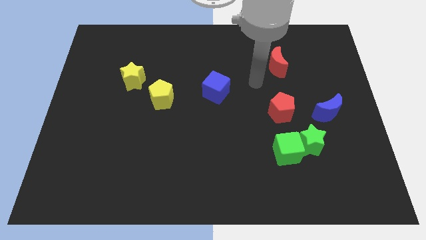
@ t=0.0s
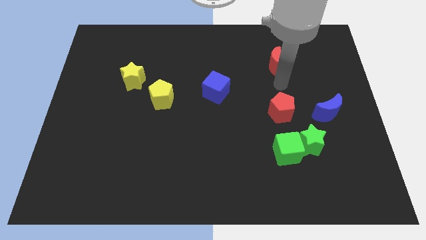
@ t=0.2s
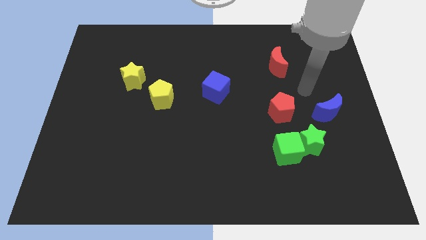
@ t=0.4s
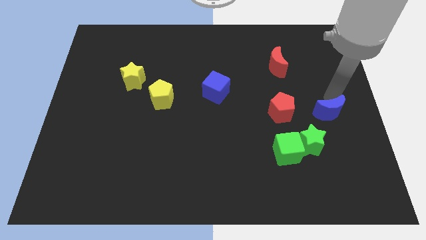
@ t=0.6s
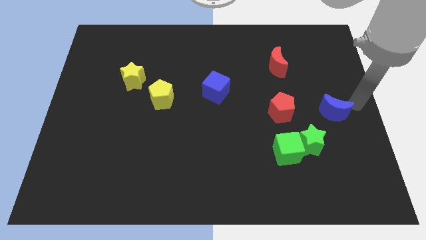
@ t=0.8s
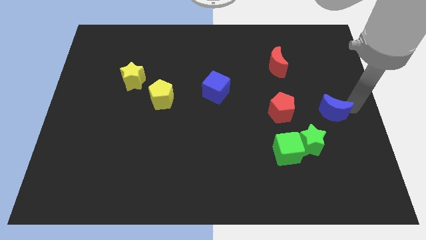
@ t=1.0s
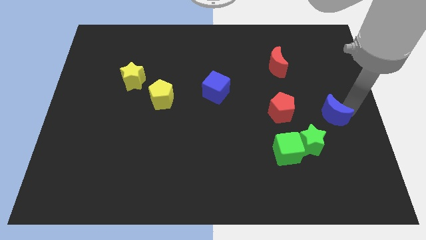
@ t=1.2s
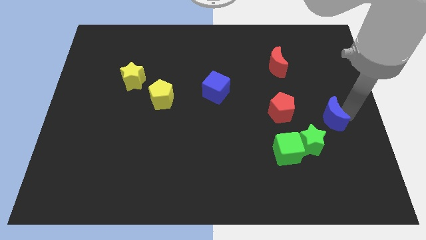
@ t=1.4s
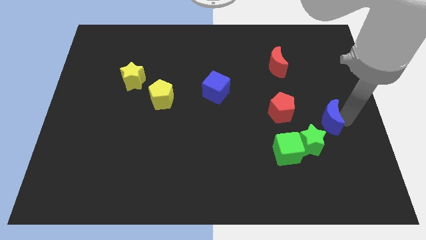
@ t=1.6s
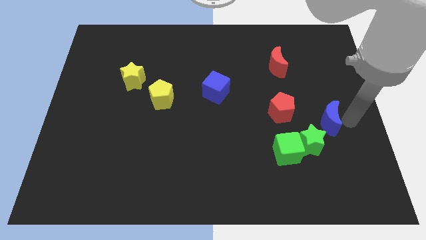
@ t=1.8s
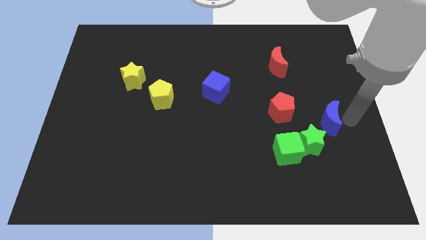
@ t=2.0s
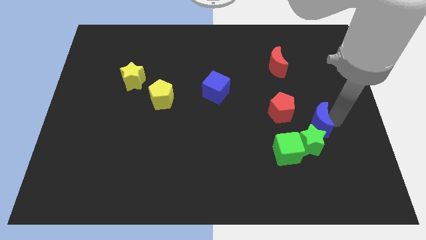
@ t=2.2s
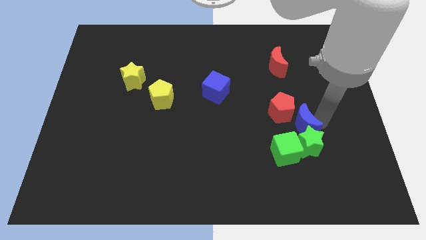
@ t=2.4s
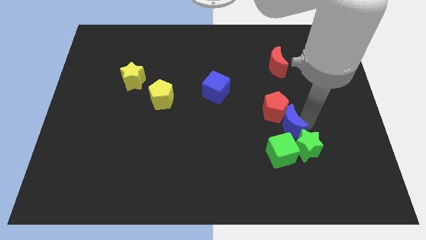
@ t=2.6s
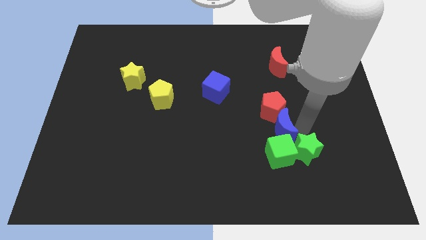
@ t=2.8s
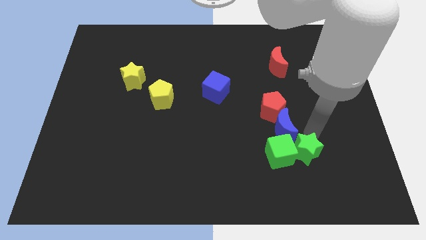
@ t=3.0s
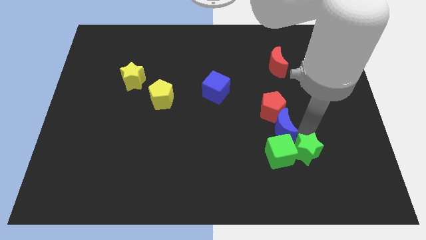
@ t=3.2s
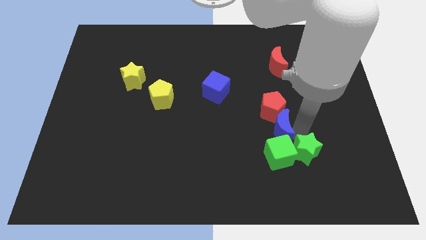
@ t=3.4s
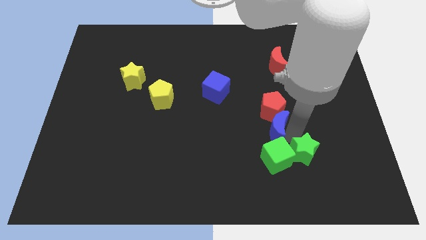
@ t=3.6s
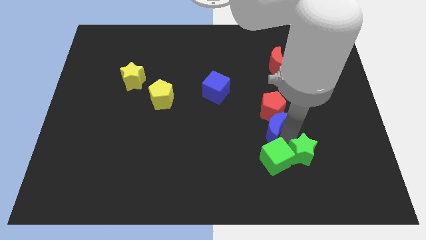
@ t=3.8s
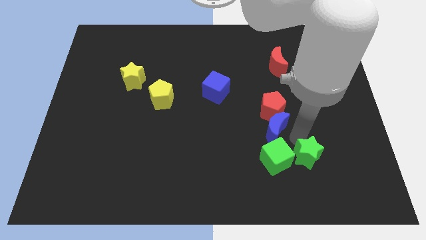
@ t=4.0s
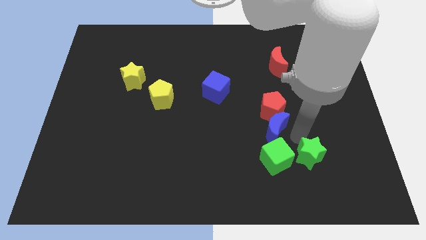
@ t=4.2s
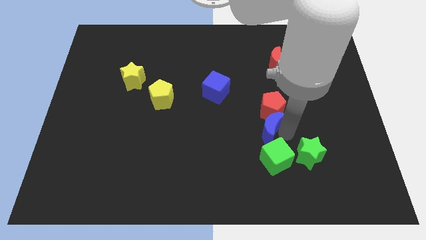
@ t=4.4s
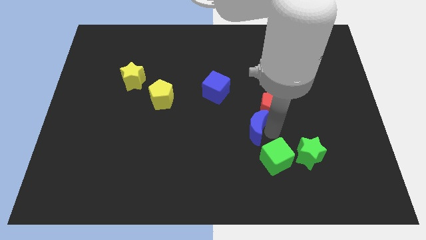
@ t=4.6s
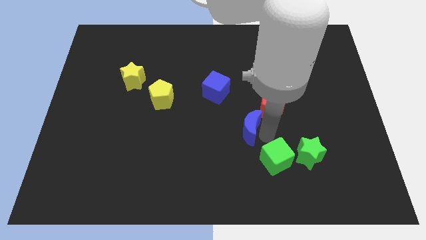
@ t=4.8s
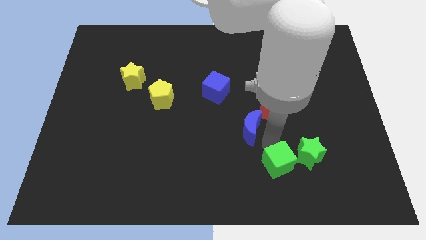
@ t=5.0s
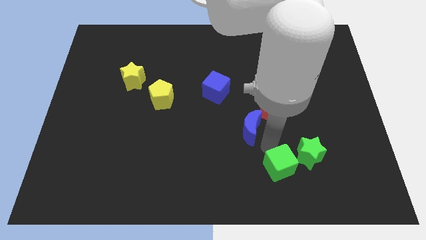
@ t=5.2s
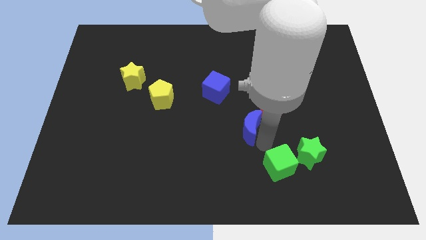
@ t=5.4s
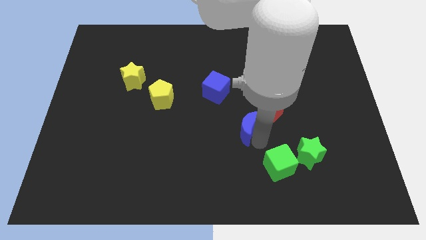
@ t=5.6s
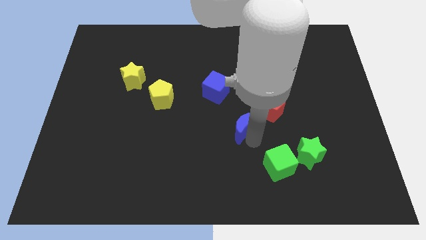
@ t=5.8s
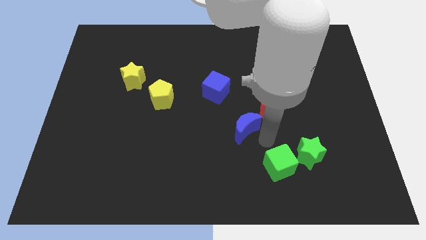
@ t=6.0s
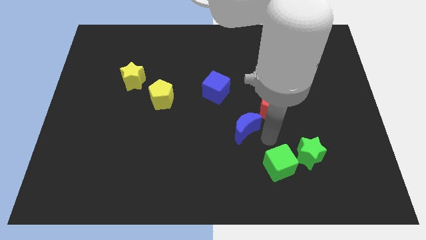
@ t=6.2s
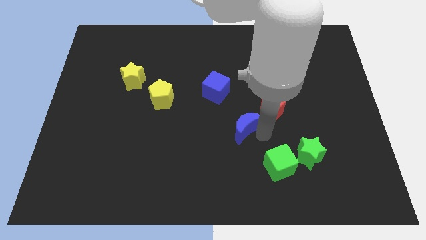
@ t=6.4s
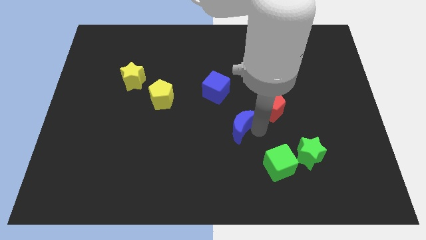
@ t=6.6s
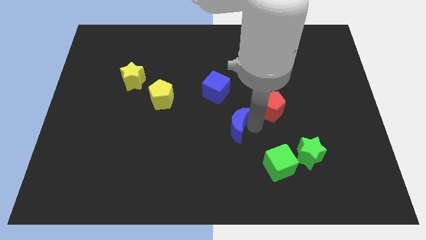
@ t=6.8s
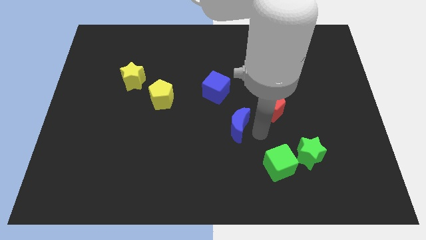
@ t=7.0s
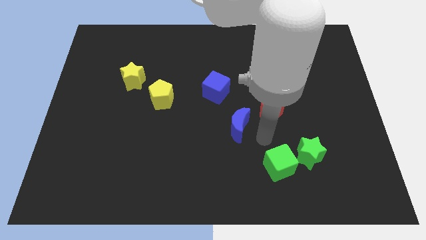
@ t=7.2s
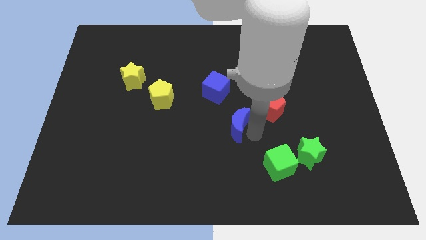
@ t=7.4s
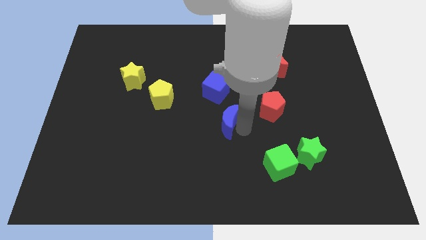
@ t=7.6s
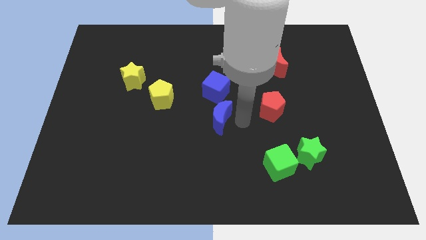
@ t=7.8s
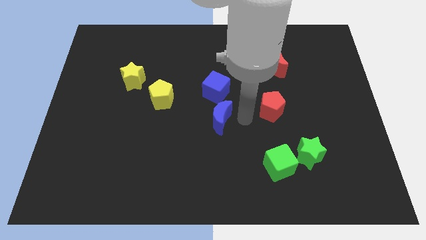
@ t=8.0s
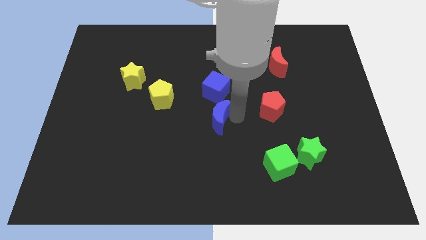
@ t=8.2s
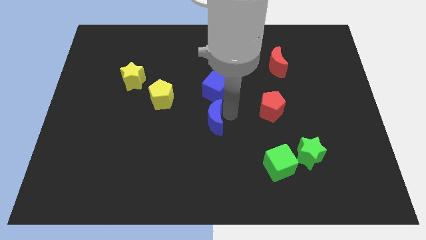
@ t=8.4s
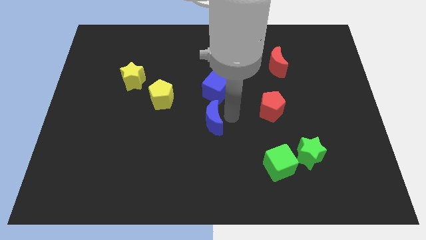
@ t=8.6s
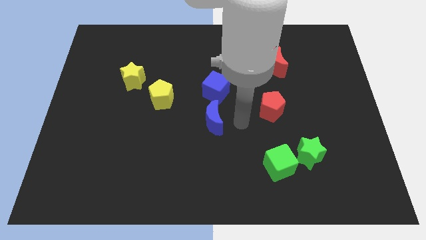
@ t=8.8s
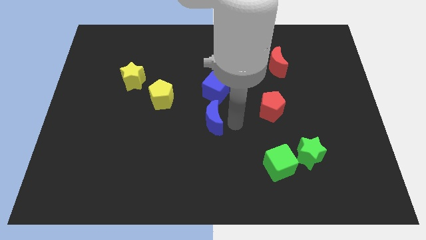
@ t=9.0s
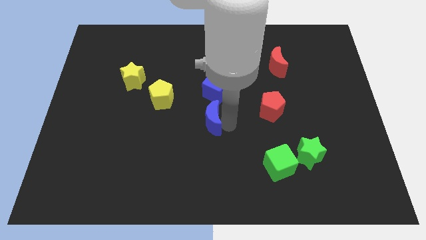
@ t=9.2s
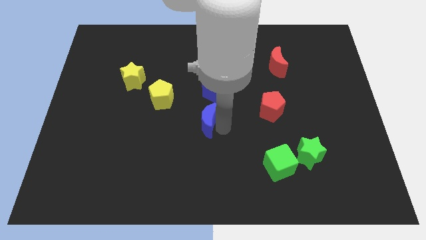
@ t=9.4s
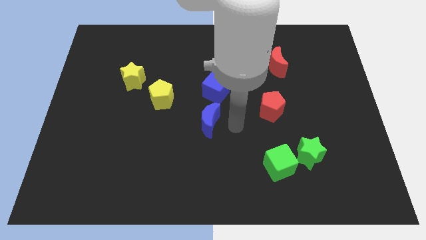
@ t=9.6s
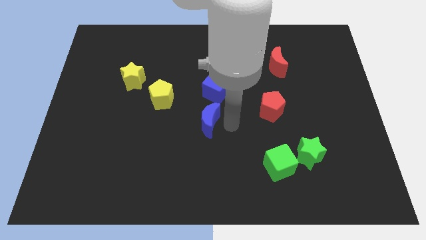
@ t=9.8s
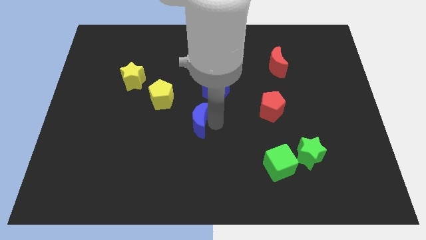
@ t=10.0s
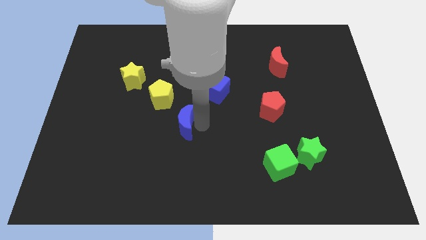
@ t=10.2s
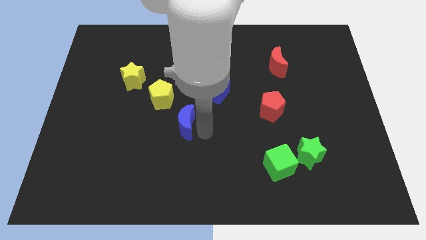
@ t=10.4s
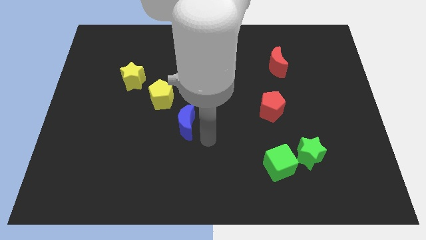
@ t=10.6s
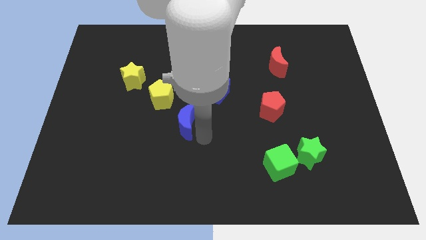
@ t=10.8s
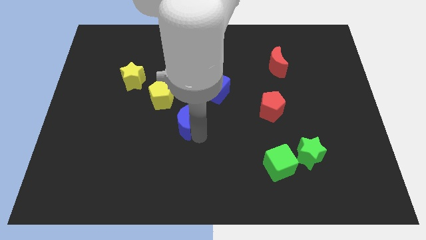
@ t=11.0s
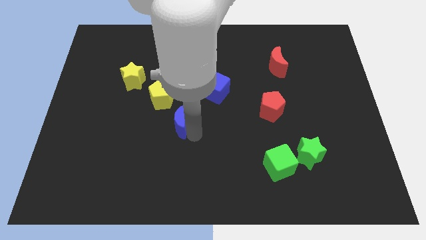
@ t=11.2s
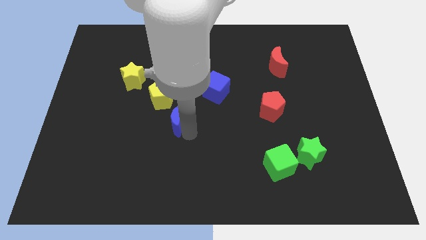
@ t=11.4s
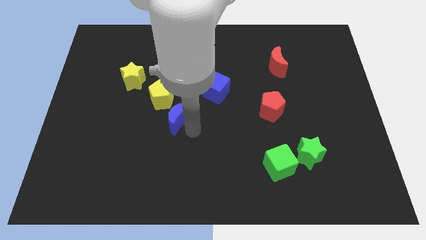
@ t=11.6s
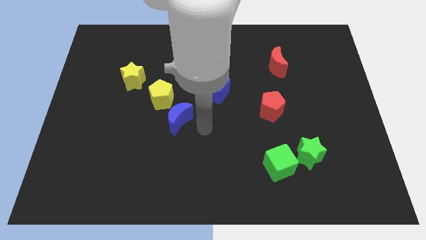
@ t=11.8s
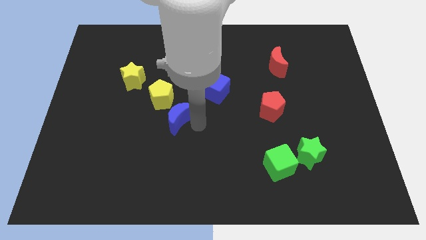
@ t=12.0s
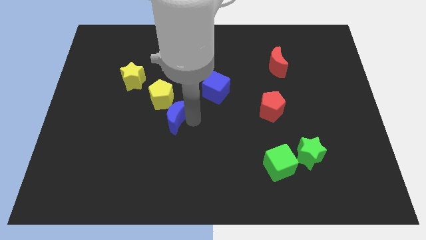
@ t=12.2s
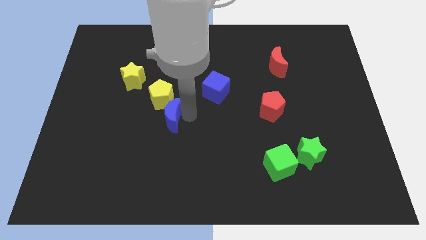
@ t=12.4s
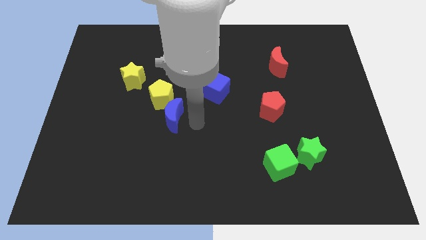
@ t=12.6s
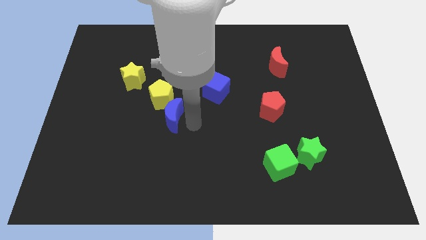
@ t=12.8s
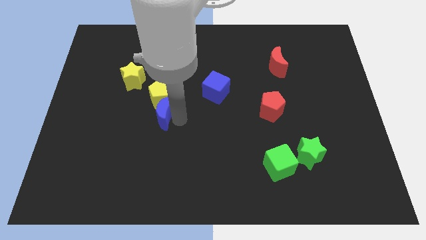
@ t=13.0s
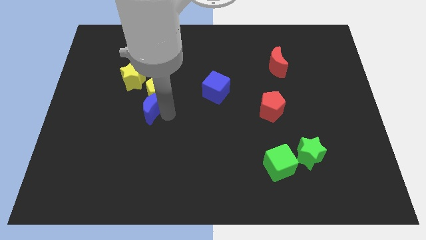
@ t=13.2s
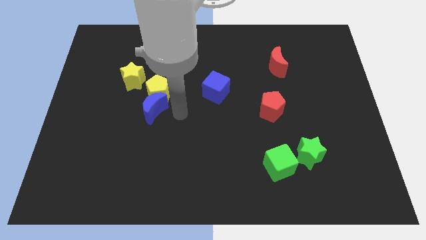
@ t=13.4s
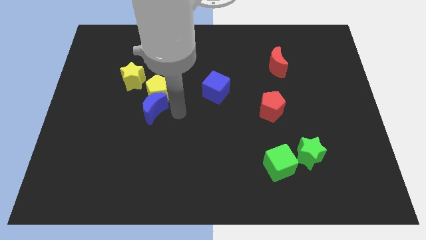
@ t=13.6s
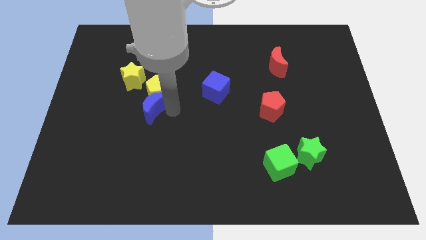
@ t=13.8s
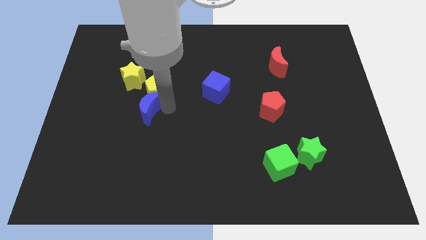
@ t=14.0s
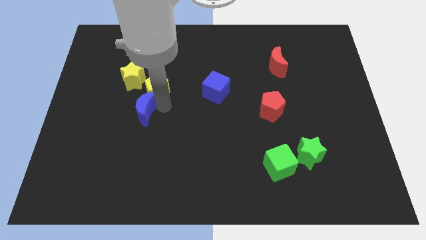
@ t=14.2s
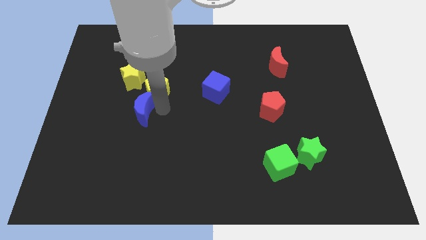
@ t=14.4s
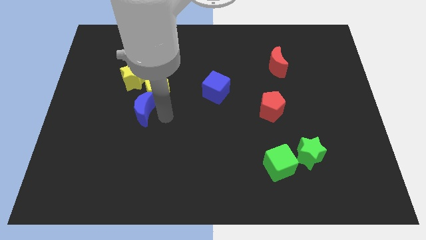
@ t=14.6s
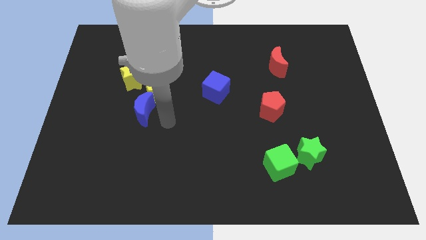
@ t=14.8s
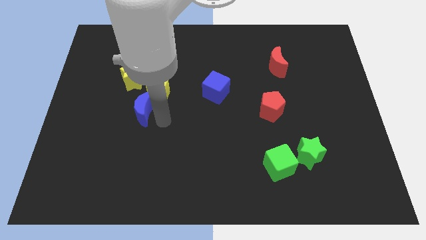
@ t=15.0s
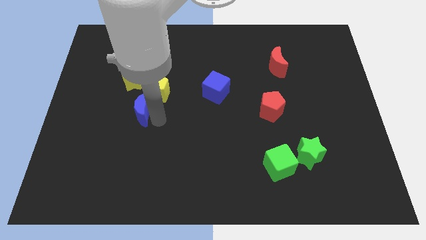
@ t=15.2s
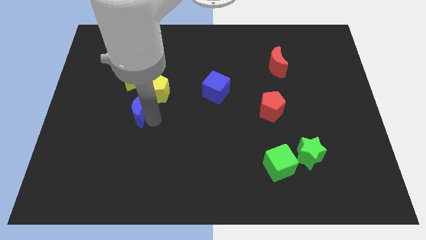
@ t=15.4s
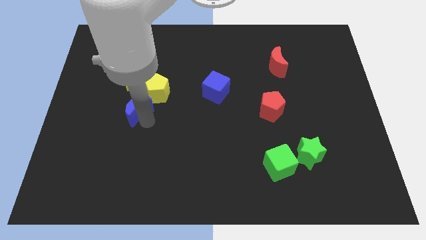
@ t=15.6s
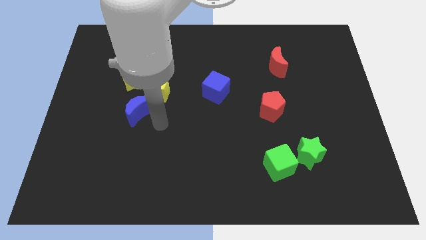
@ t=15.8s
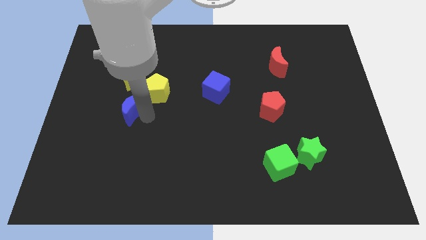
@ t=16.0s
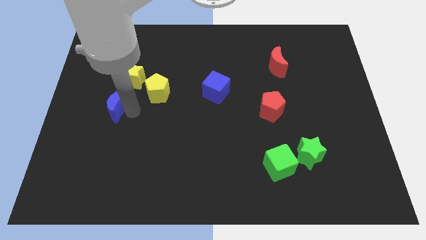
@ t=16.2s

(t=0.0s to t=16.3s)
push the blue moon diagonally down and to the left of the yellow star
